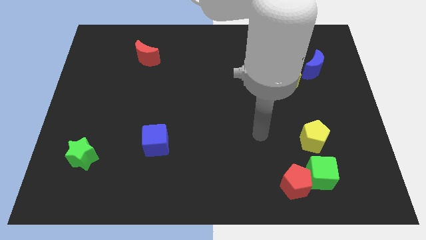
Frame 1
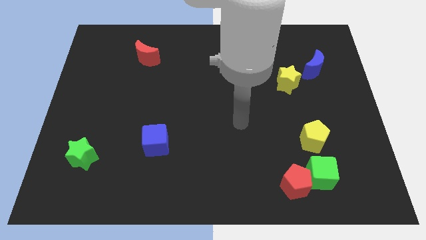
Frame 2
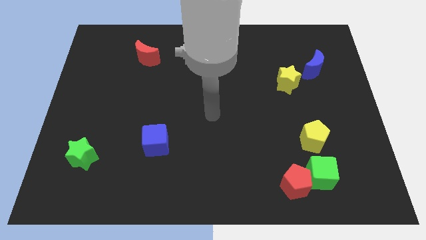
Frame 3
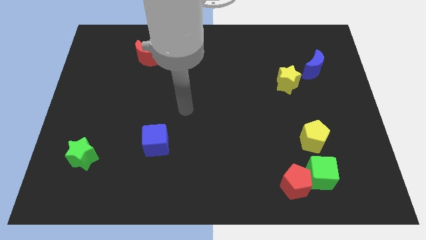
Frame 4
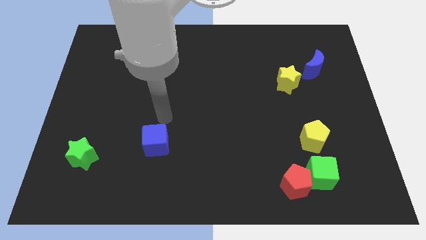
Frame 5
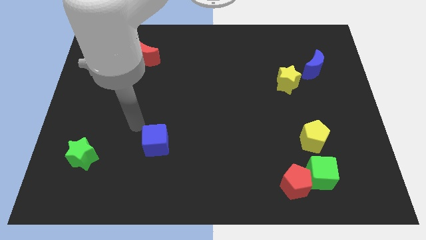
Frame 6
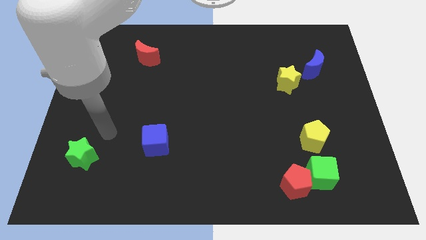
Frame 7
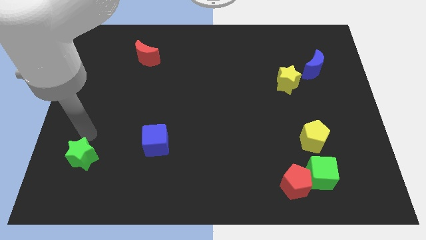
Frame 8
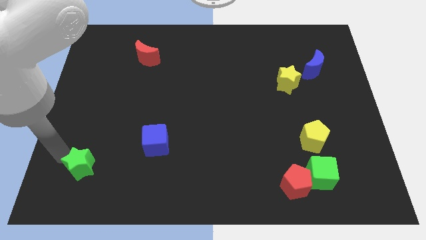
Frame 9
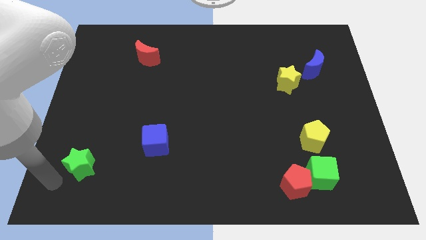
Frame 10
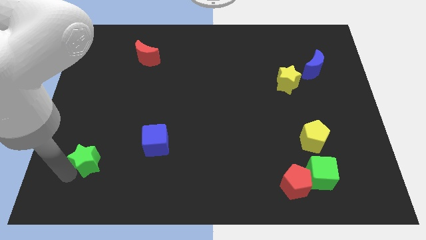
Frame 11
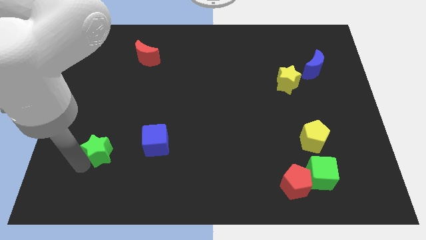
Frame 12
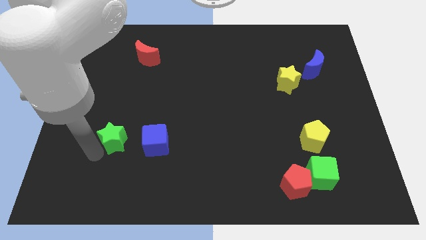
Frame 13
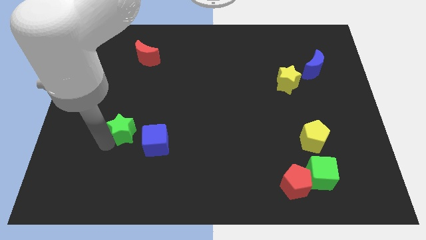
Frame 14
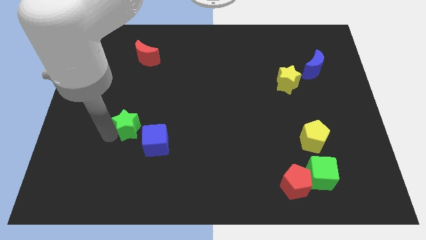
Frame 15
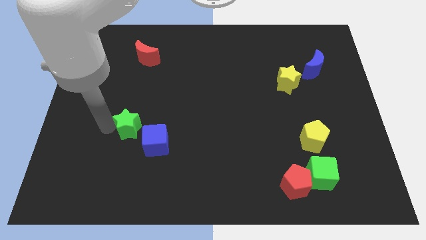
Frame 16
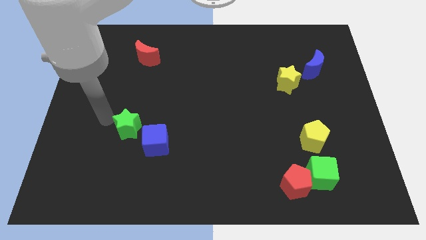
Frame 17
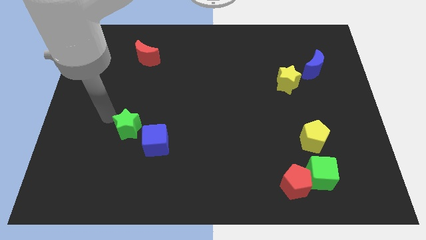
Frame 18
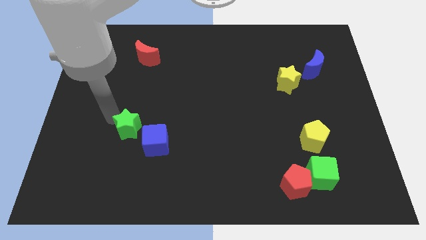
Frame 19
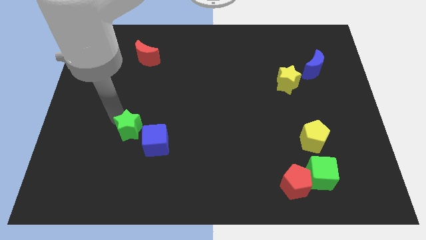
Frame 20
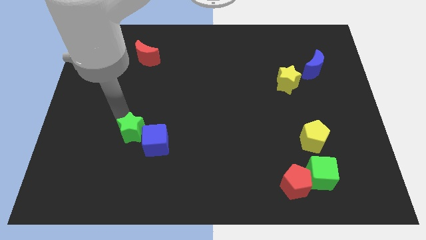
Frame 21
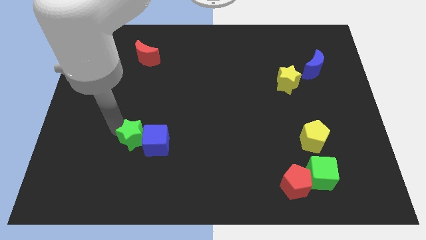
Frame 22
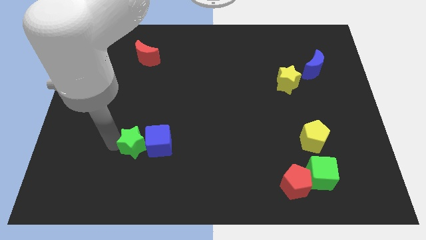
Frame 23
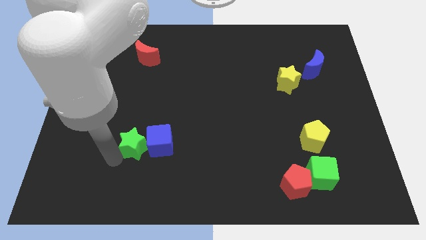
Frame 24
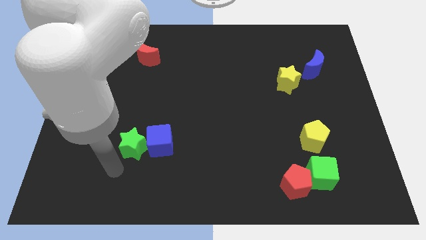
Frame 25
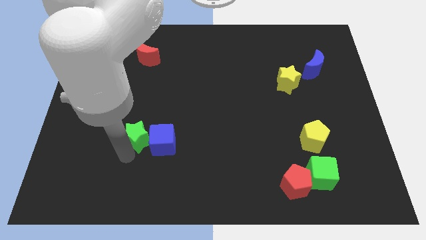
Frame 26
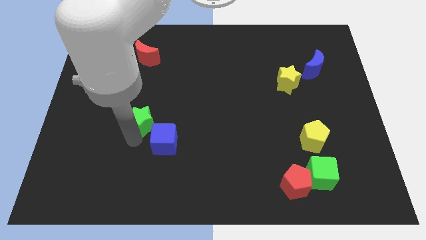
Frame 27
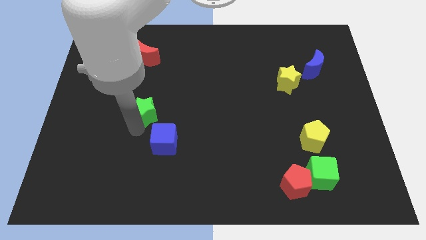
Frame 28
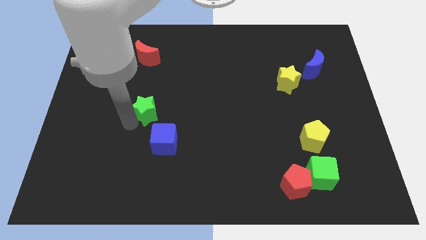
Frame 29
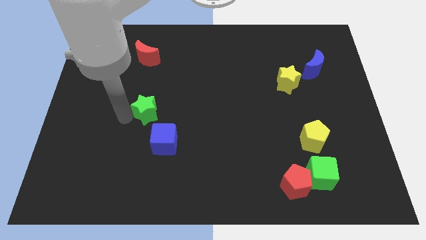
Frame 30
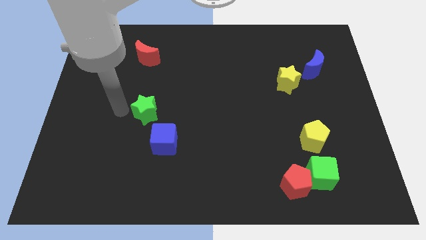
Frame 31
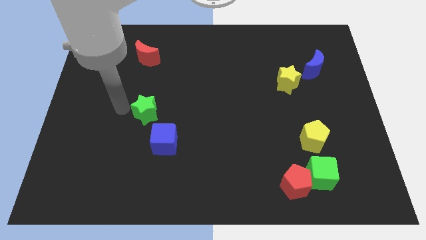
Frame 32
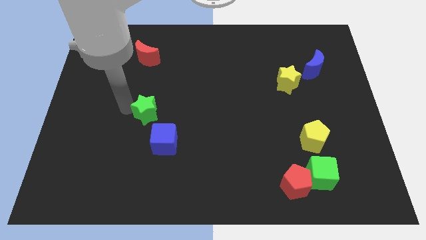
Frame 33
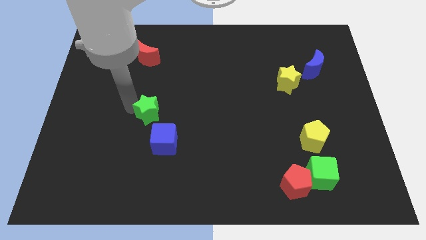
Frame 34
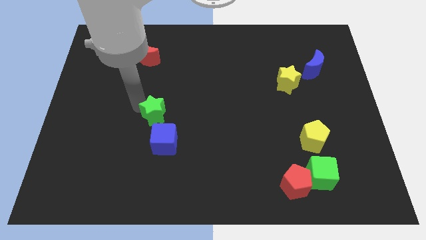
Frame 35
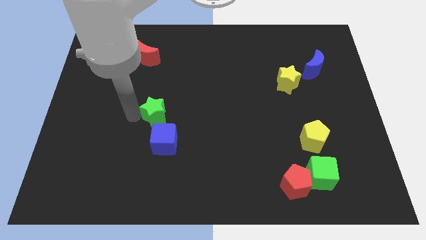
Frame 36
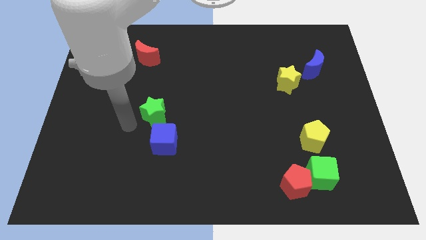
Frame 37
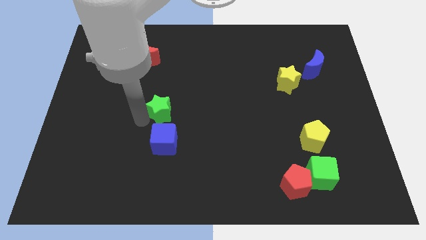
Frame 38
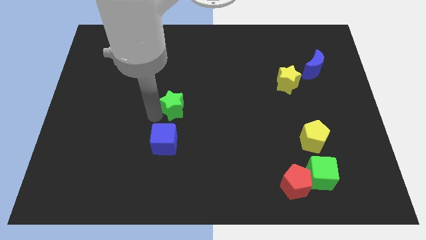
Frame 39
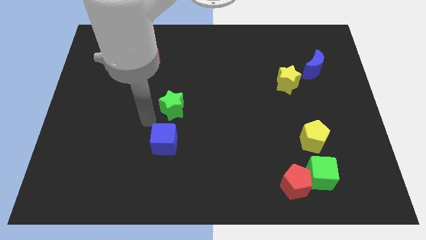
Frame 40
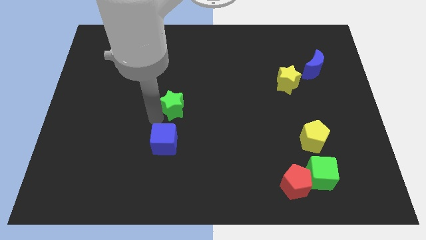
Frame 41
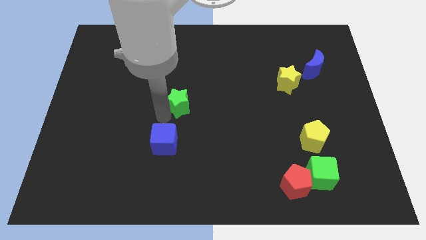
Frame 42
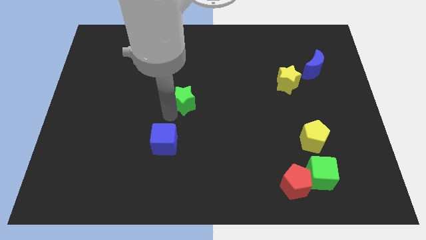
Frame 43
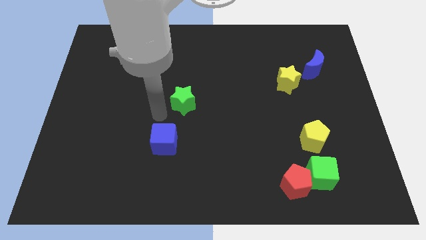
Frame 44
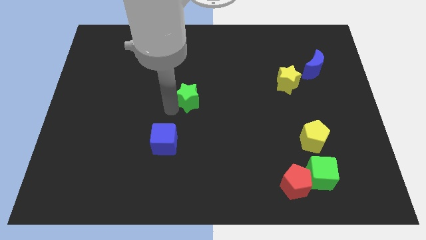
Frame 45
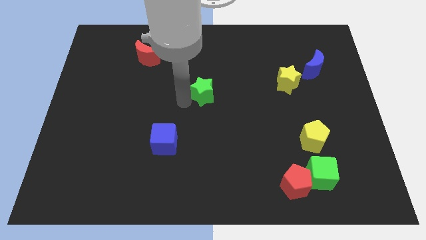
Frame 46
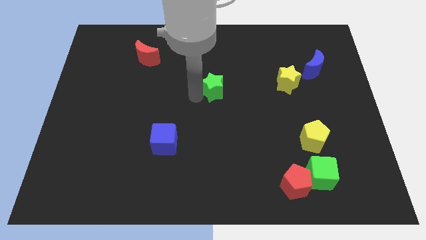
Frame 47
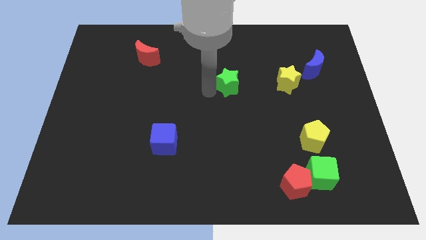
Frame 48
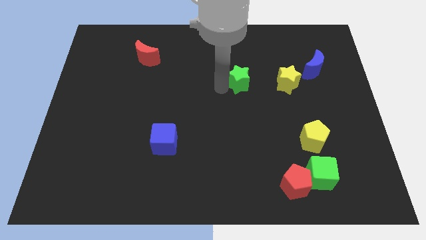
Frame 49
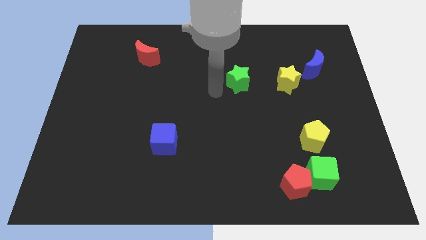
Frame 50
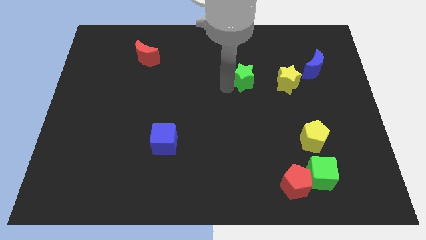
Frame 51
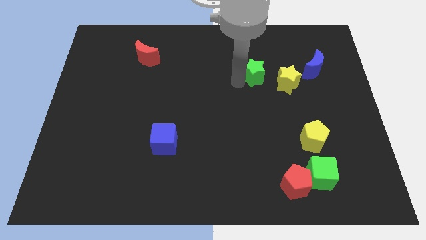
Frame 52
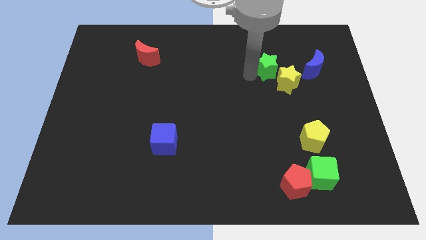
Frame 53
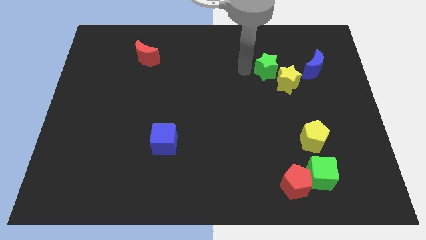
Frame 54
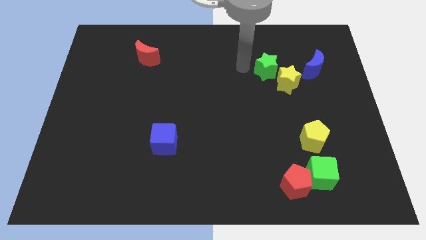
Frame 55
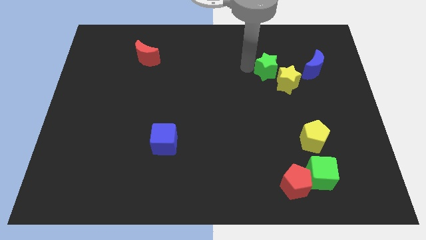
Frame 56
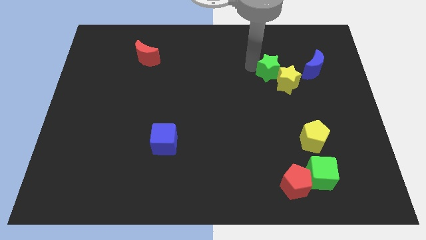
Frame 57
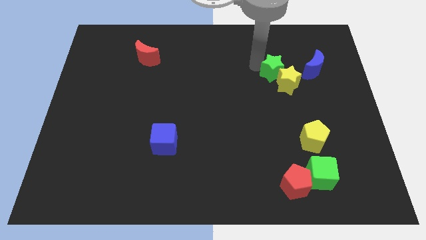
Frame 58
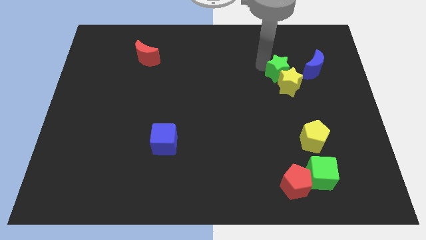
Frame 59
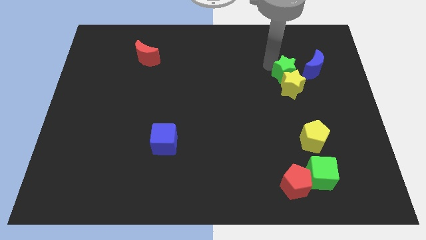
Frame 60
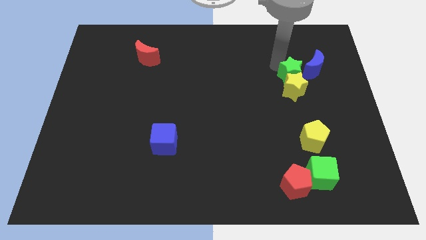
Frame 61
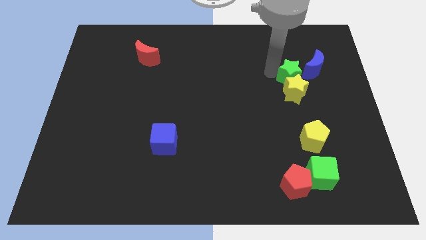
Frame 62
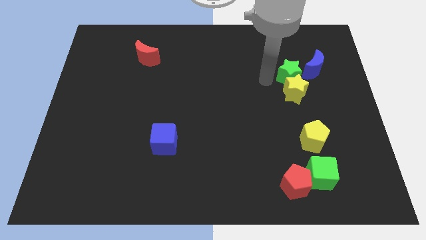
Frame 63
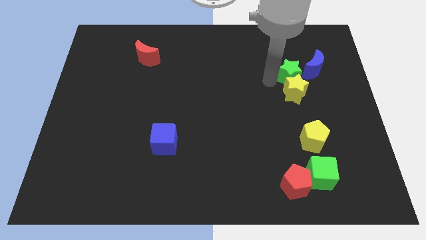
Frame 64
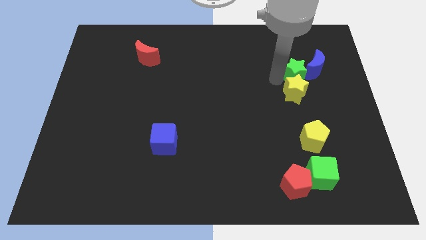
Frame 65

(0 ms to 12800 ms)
push the green star to the blue moon
